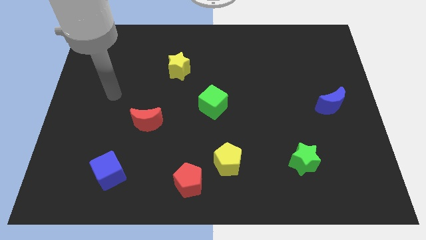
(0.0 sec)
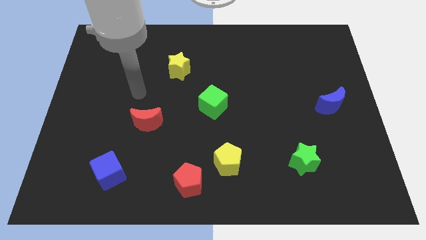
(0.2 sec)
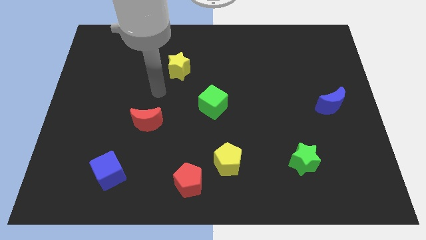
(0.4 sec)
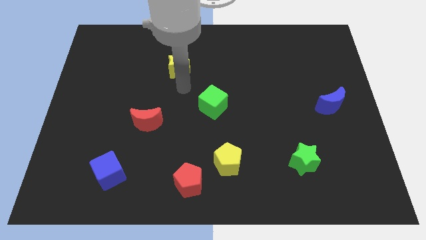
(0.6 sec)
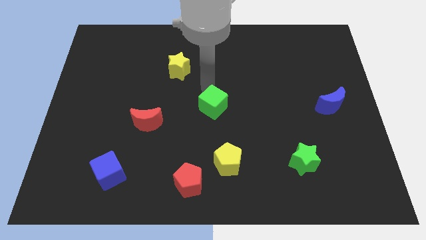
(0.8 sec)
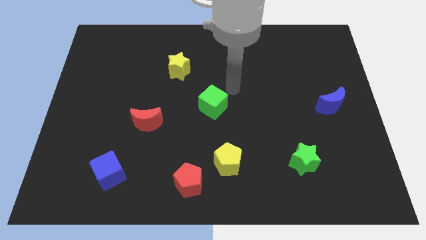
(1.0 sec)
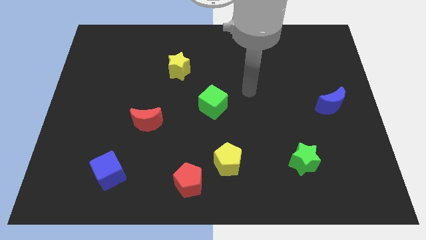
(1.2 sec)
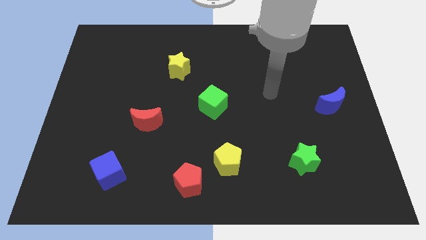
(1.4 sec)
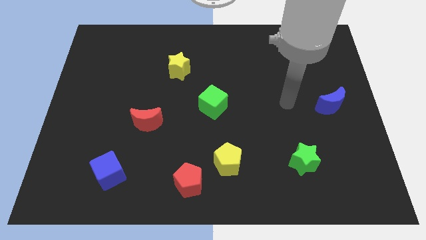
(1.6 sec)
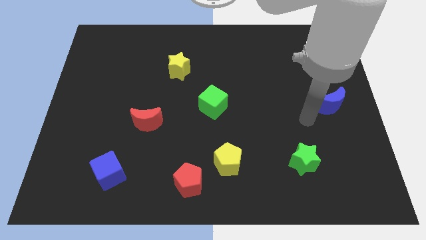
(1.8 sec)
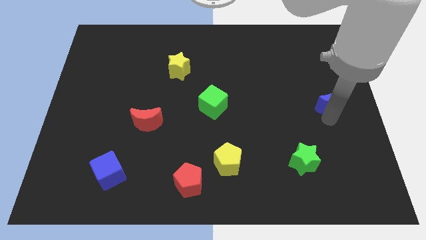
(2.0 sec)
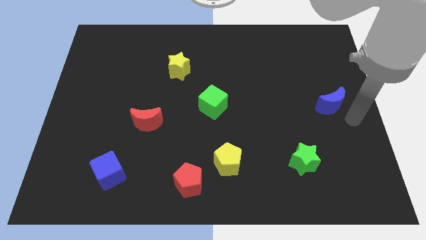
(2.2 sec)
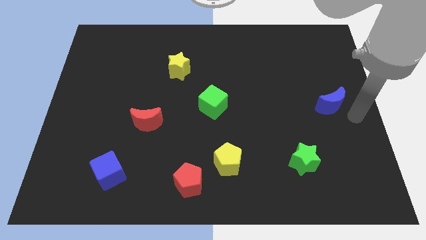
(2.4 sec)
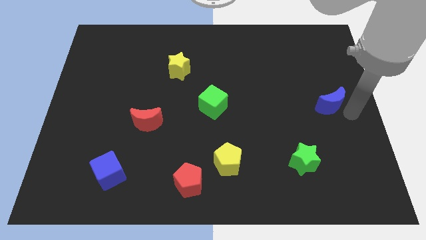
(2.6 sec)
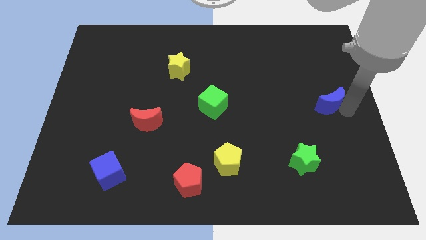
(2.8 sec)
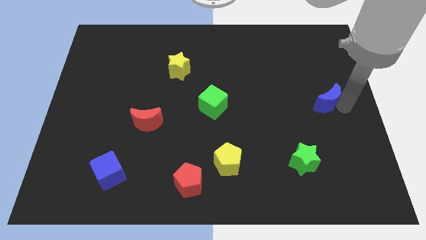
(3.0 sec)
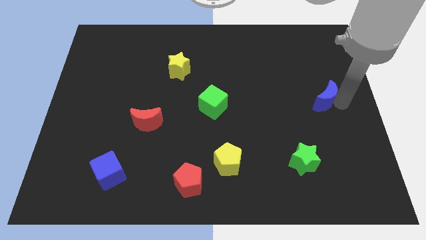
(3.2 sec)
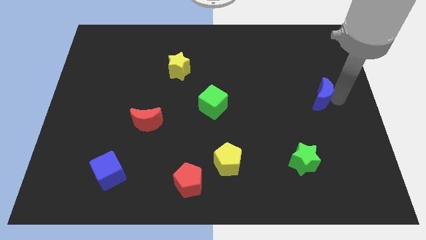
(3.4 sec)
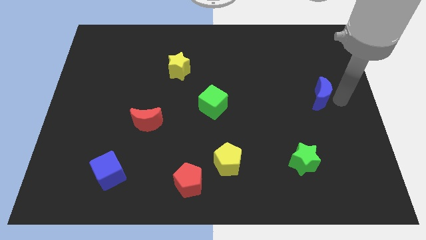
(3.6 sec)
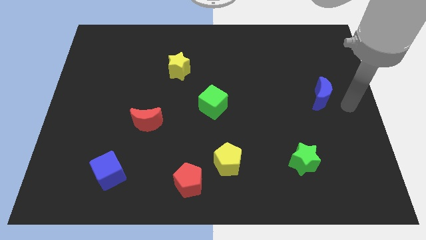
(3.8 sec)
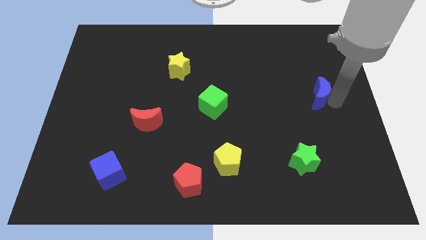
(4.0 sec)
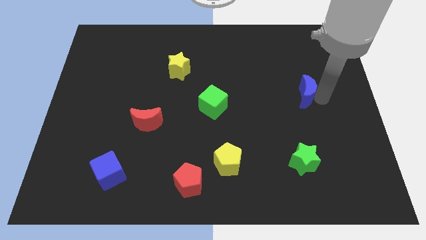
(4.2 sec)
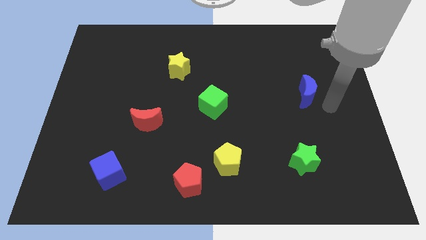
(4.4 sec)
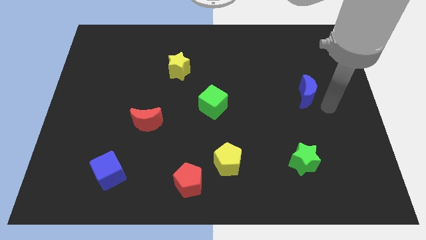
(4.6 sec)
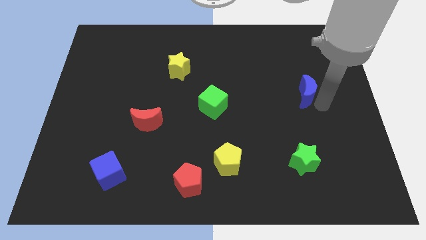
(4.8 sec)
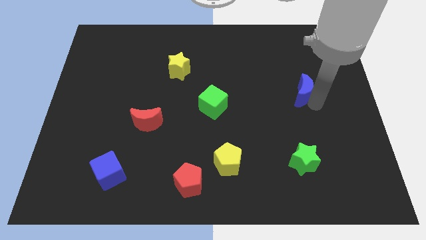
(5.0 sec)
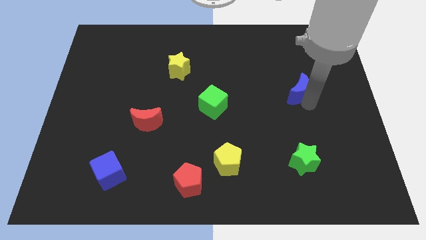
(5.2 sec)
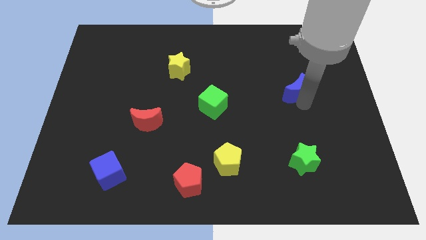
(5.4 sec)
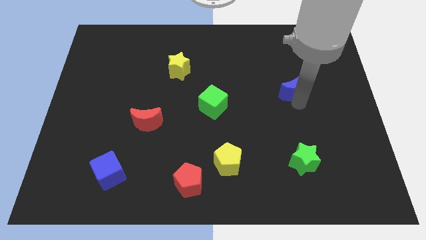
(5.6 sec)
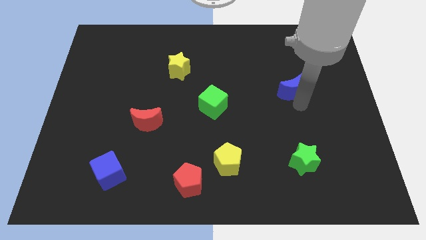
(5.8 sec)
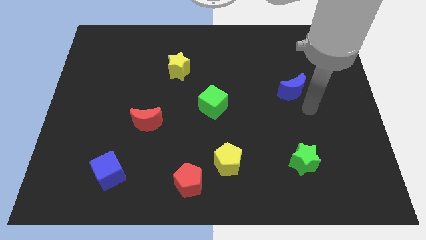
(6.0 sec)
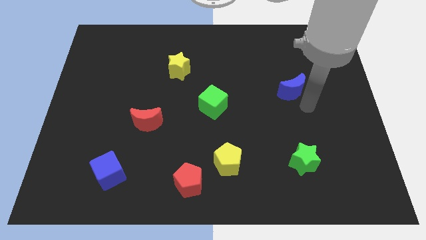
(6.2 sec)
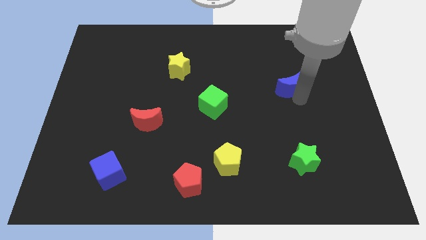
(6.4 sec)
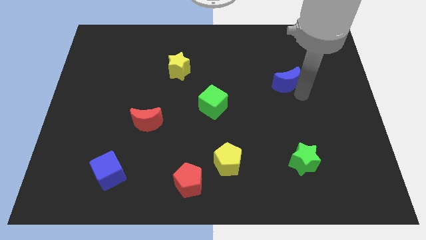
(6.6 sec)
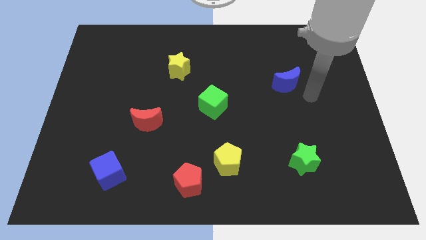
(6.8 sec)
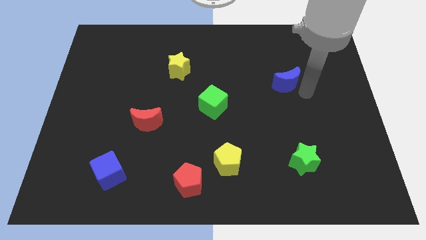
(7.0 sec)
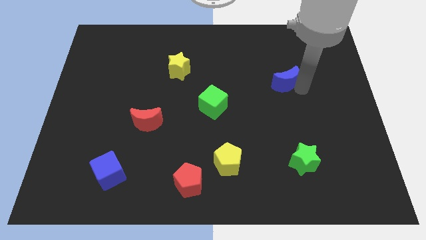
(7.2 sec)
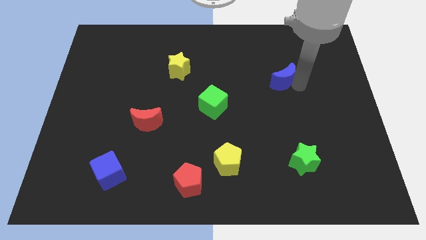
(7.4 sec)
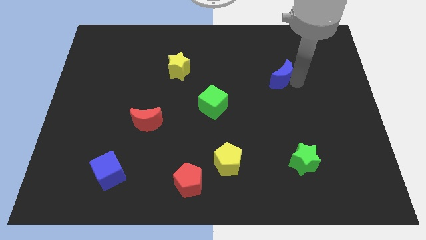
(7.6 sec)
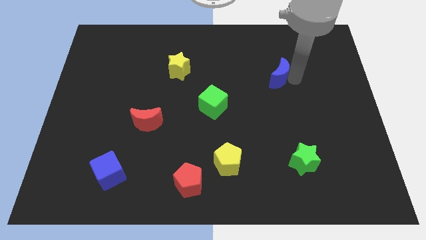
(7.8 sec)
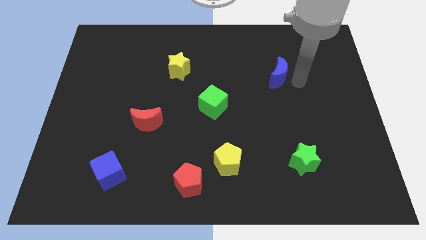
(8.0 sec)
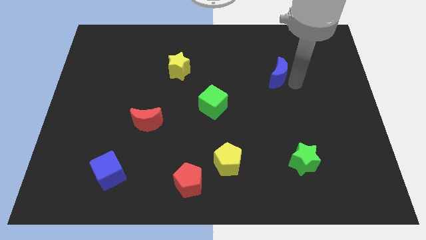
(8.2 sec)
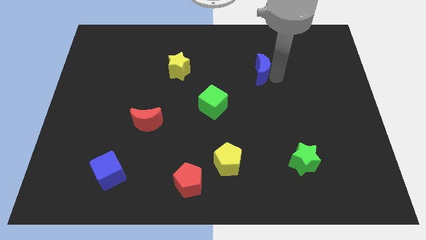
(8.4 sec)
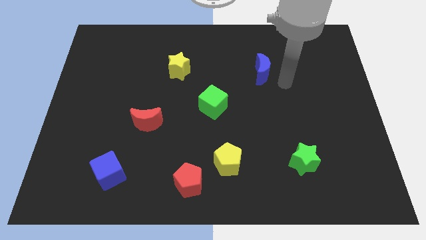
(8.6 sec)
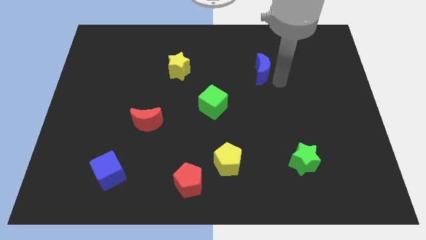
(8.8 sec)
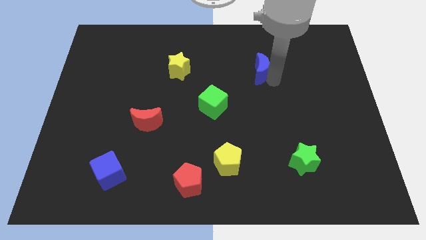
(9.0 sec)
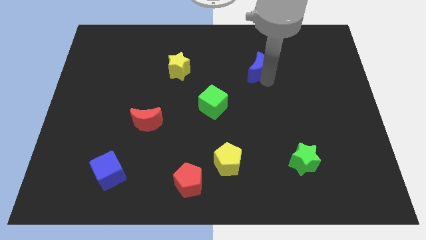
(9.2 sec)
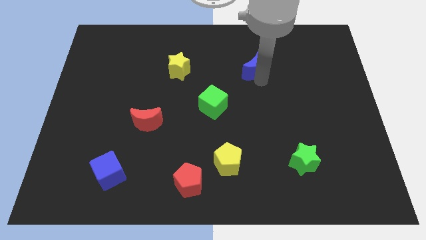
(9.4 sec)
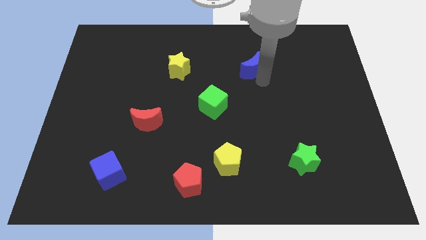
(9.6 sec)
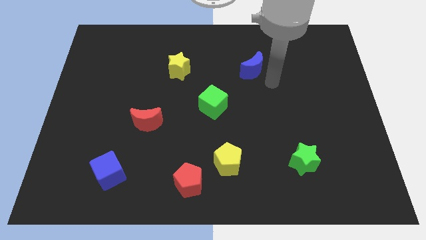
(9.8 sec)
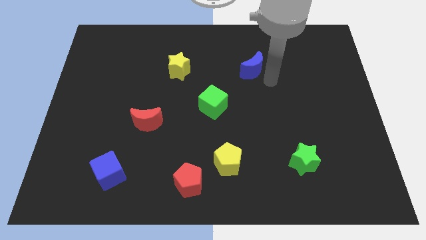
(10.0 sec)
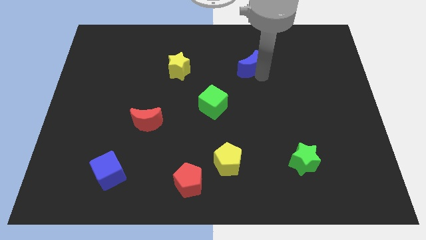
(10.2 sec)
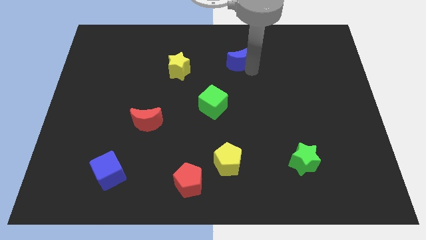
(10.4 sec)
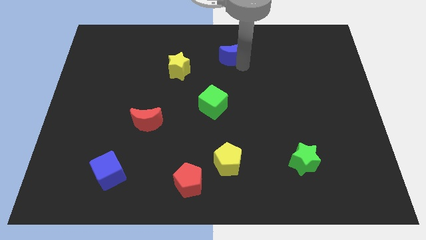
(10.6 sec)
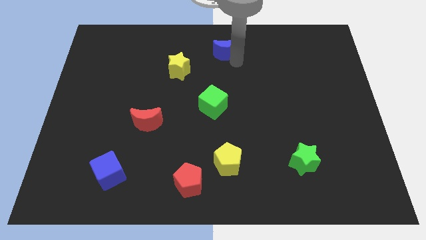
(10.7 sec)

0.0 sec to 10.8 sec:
put the blue moon to the top

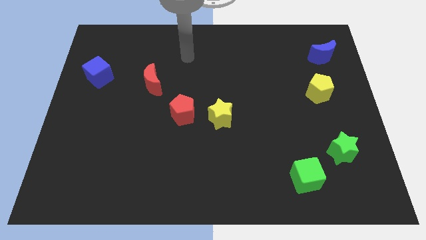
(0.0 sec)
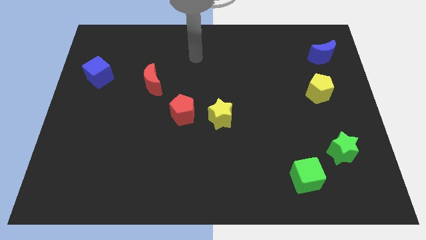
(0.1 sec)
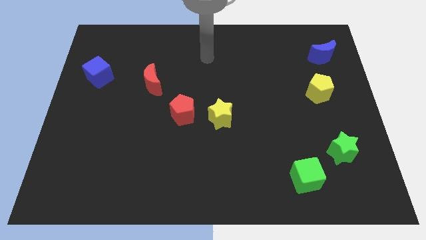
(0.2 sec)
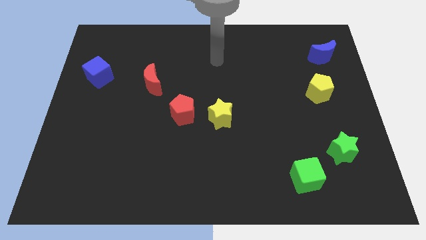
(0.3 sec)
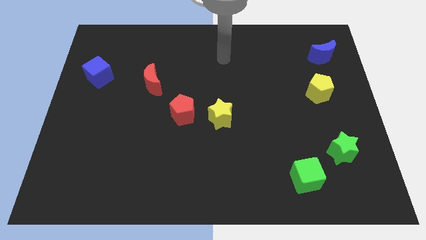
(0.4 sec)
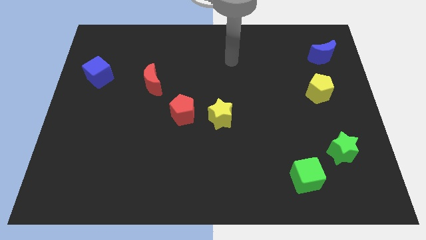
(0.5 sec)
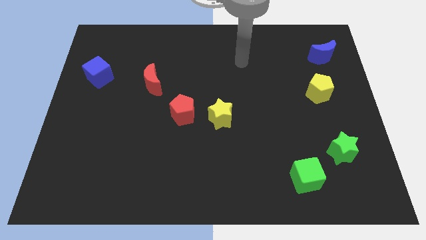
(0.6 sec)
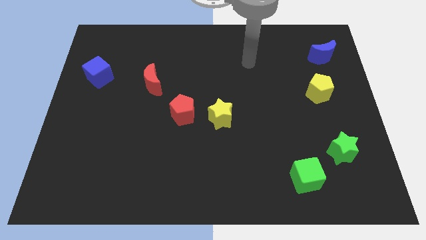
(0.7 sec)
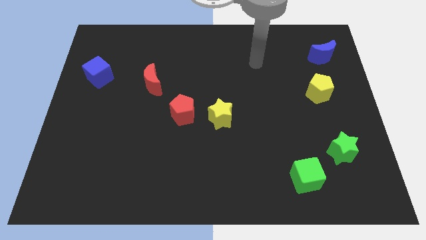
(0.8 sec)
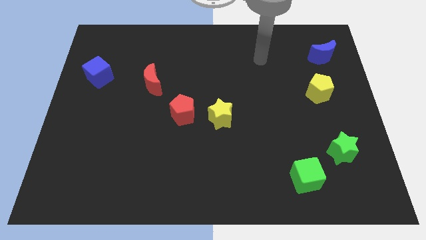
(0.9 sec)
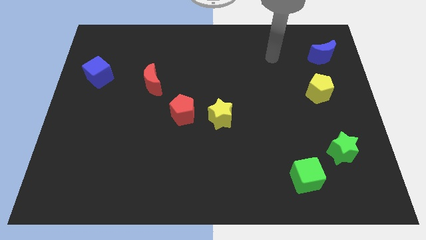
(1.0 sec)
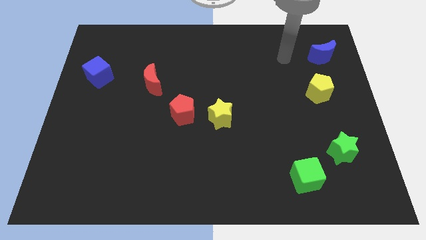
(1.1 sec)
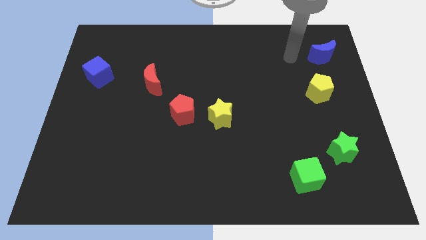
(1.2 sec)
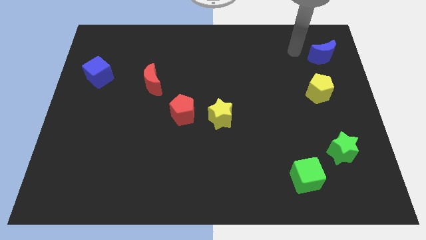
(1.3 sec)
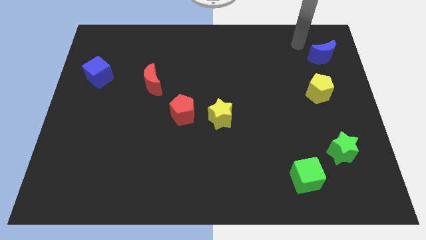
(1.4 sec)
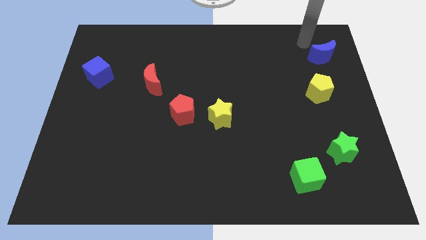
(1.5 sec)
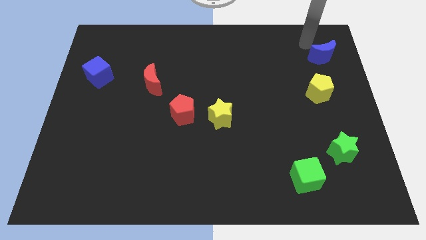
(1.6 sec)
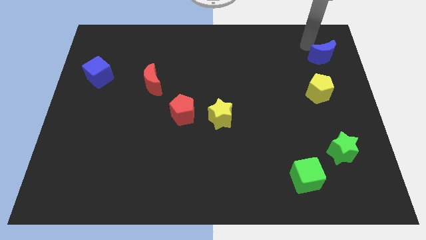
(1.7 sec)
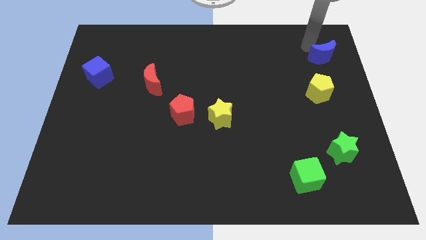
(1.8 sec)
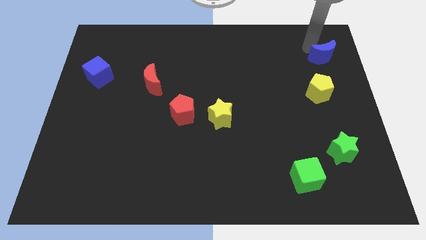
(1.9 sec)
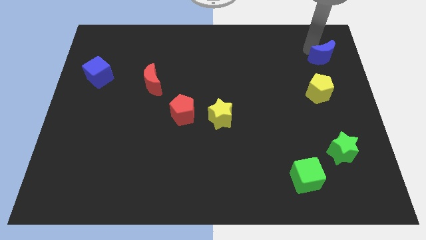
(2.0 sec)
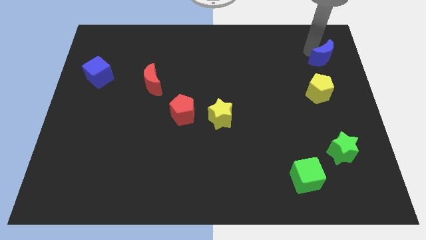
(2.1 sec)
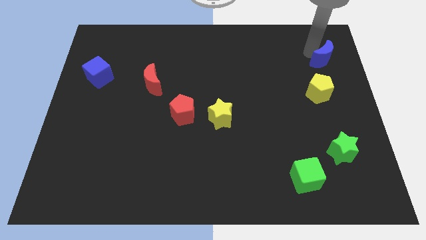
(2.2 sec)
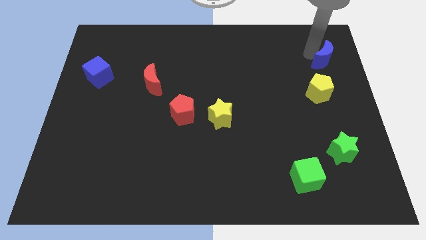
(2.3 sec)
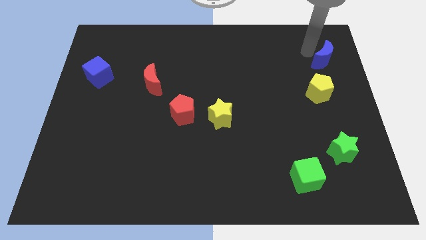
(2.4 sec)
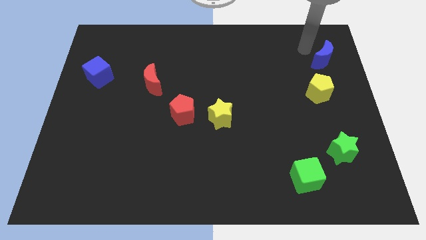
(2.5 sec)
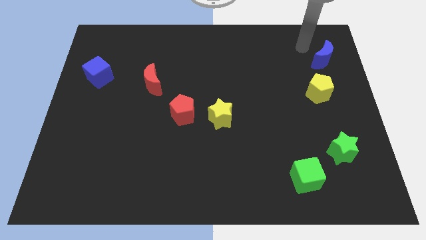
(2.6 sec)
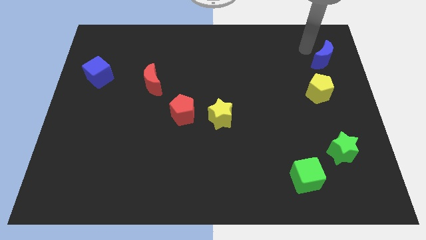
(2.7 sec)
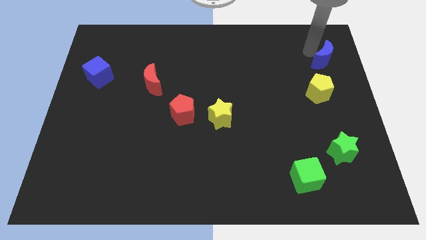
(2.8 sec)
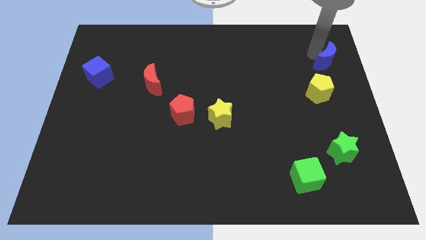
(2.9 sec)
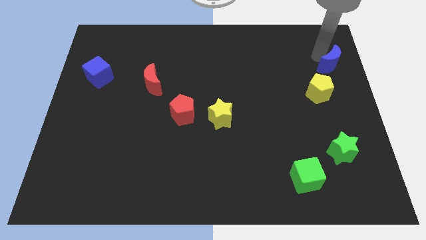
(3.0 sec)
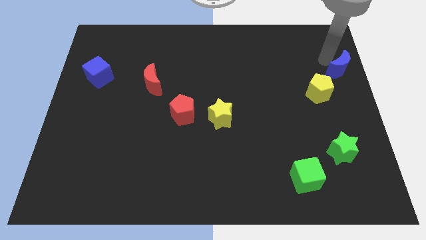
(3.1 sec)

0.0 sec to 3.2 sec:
move the blue moon to the right side
